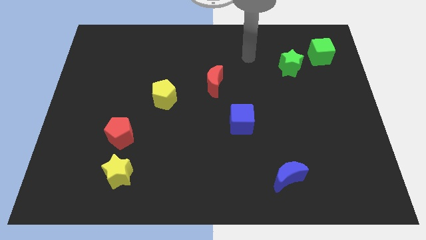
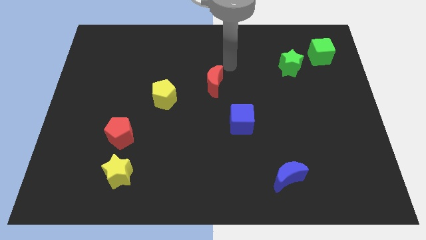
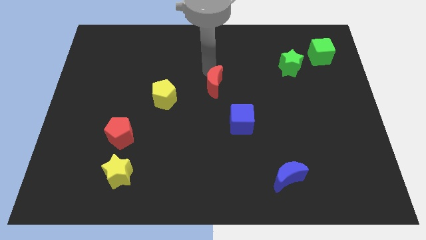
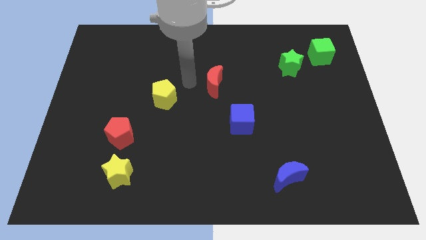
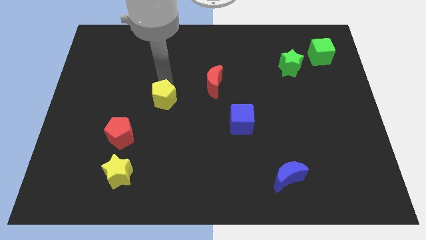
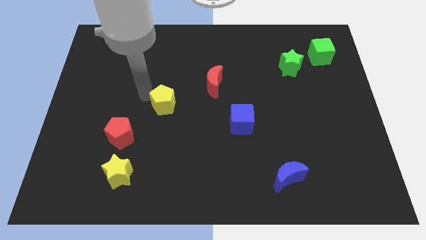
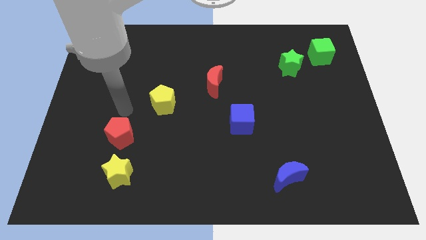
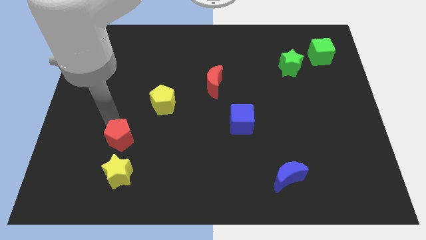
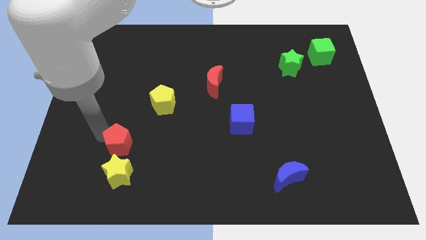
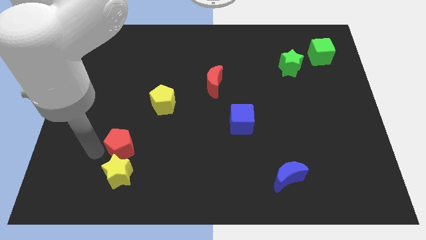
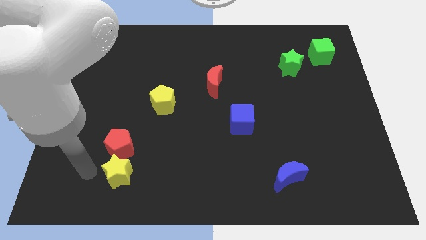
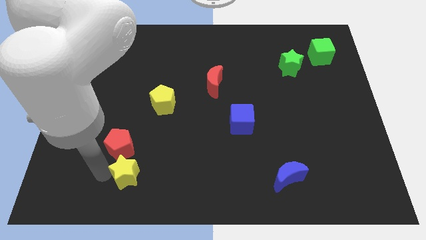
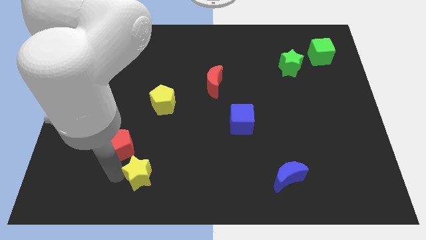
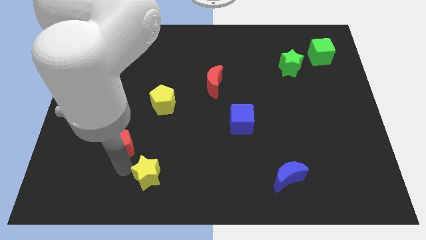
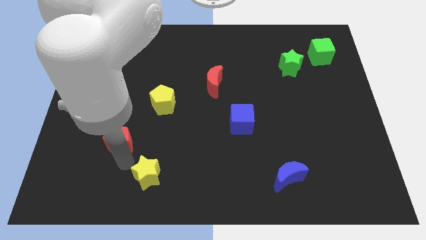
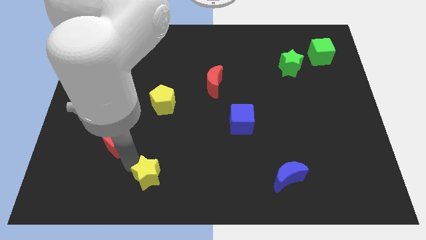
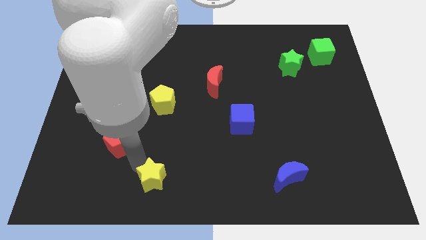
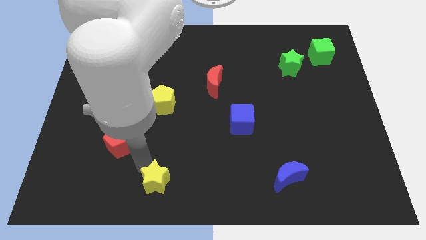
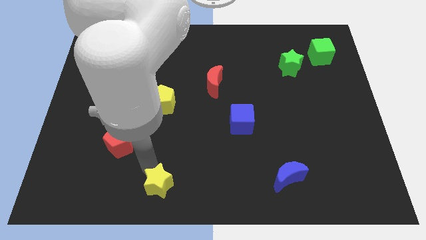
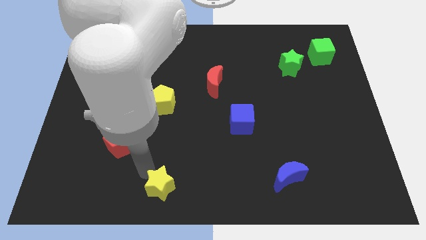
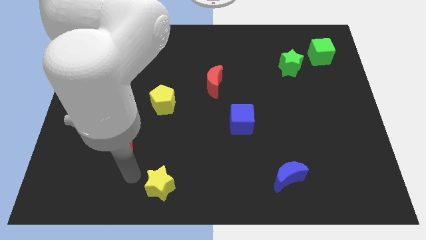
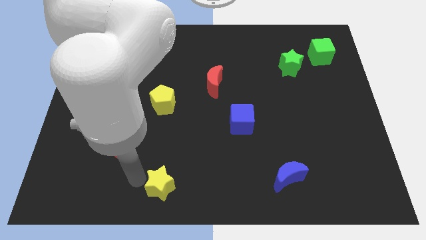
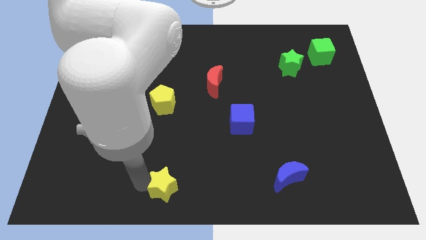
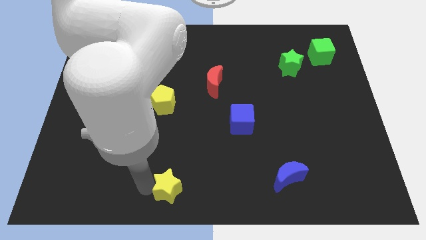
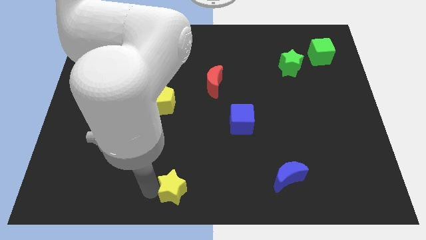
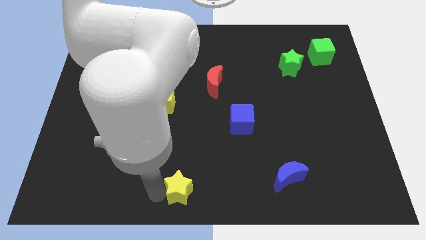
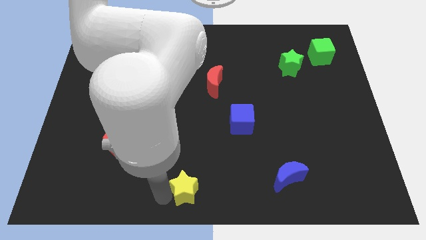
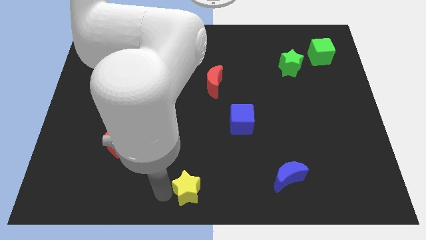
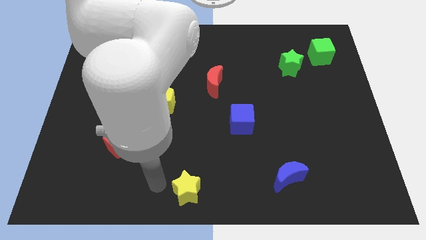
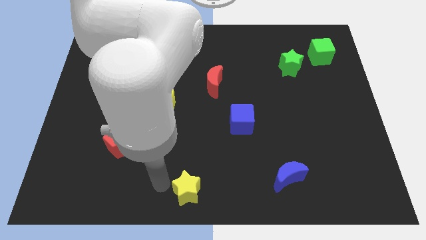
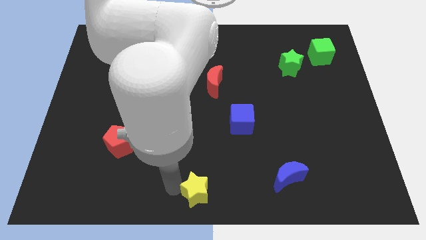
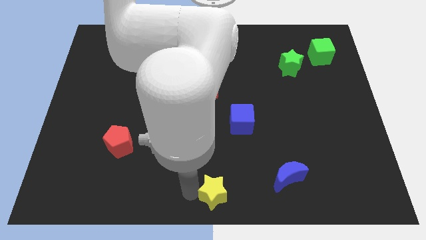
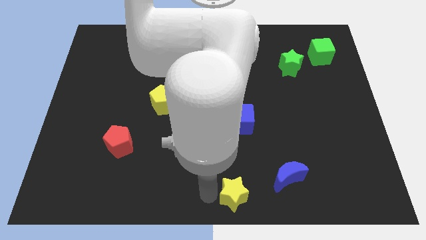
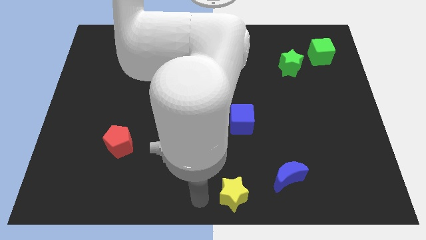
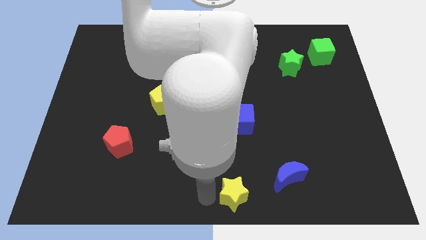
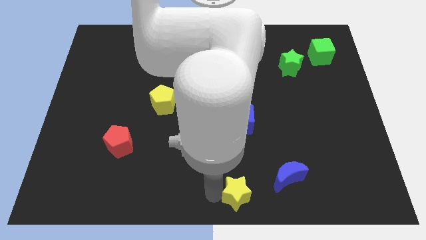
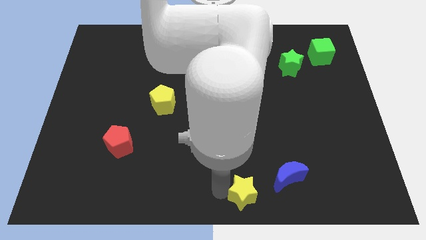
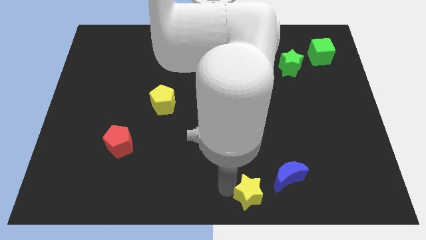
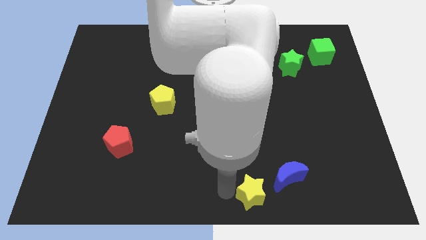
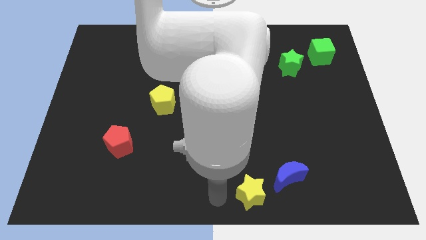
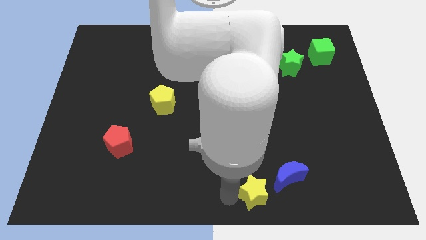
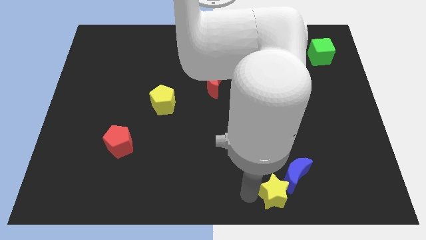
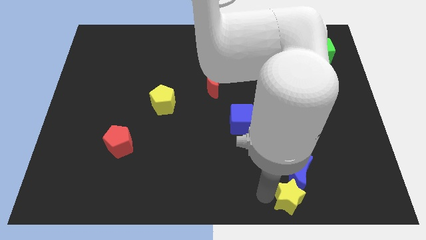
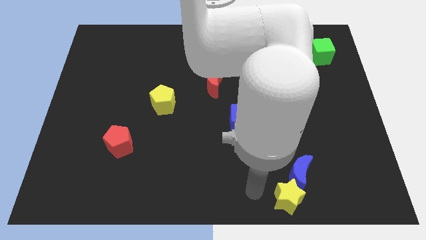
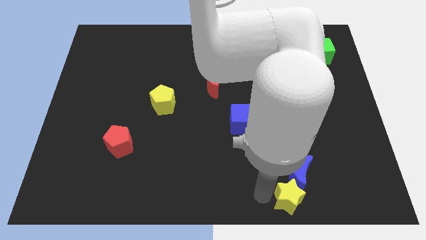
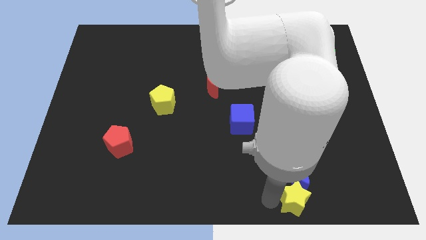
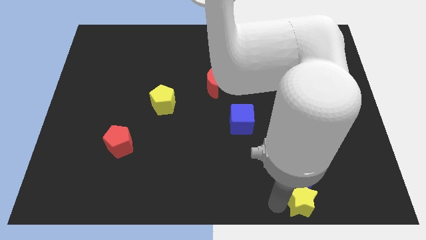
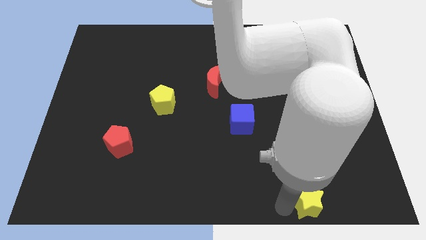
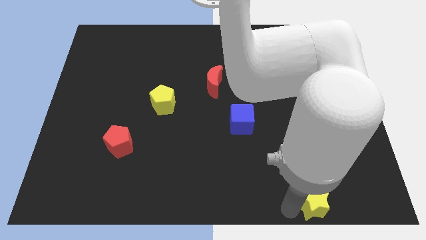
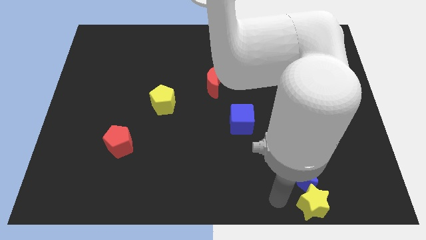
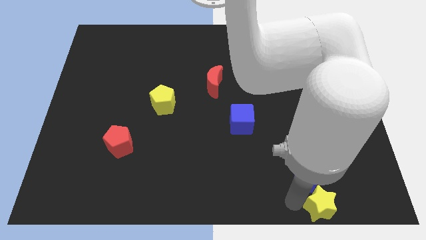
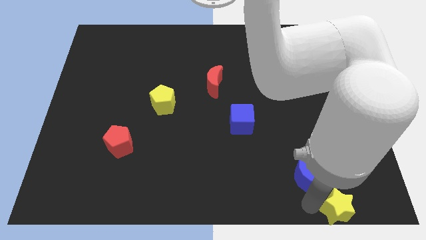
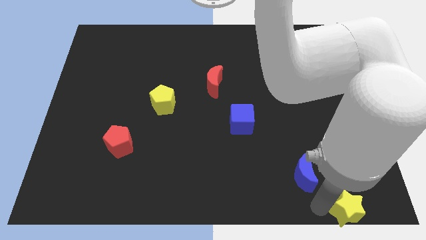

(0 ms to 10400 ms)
push the yellow star to the lower right corner

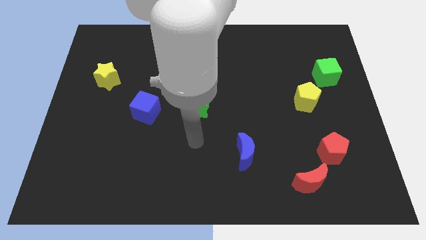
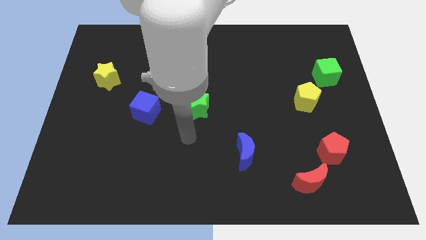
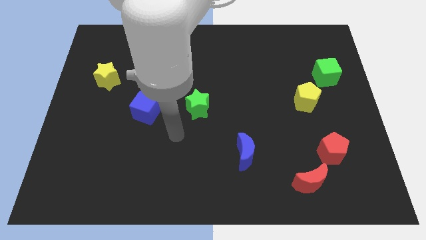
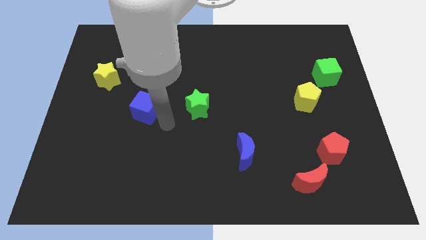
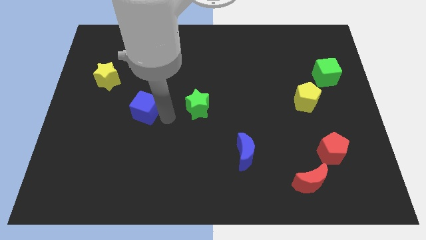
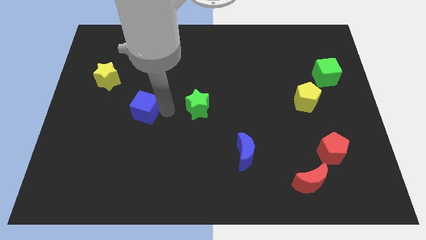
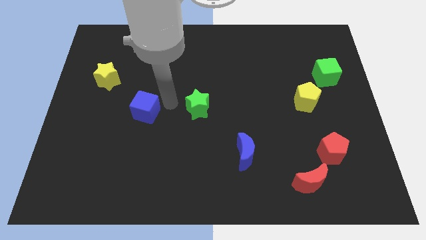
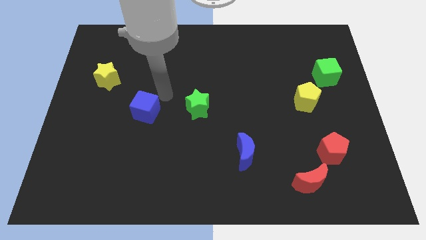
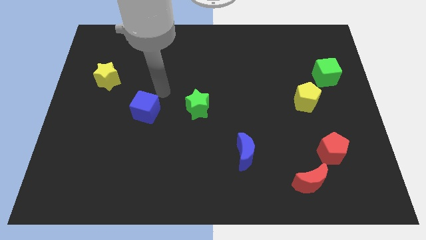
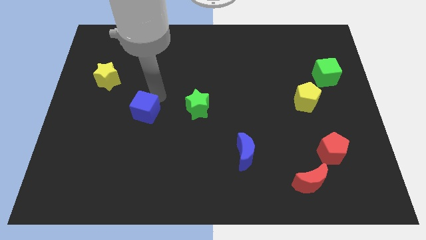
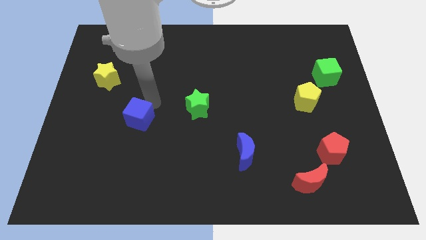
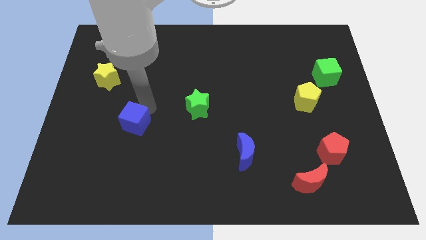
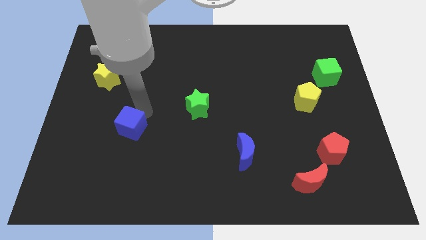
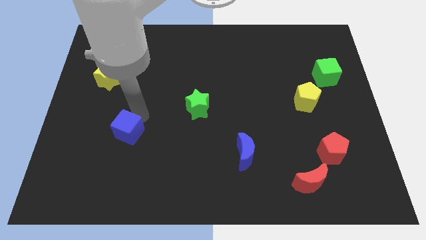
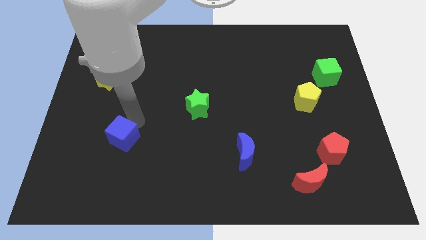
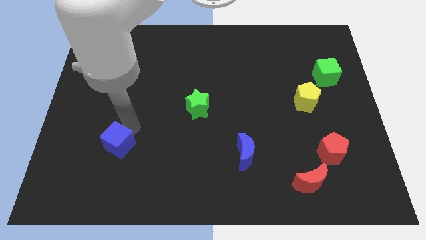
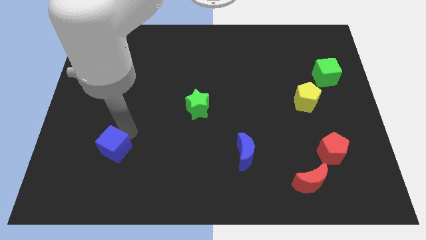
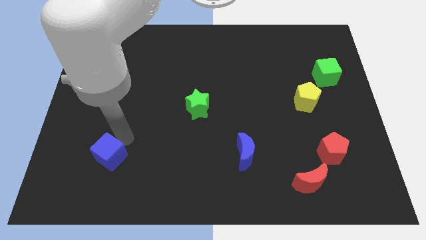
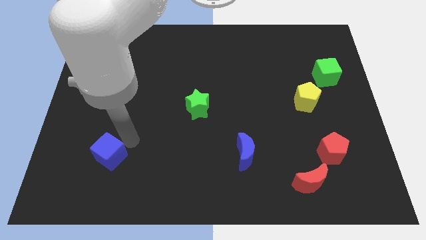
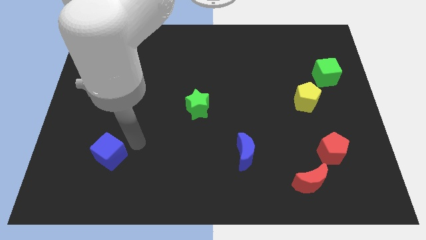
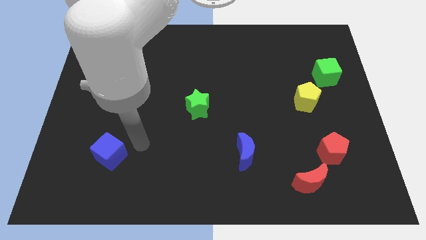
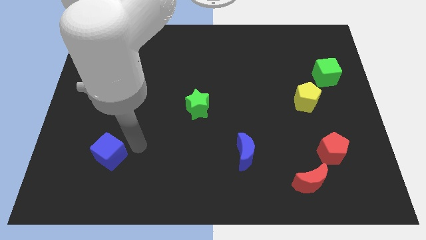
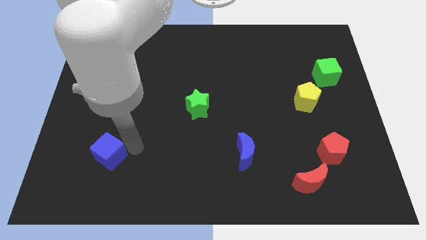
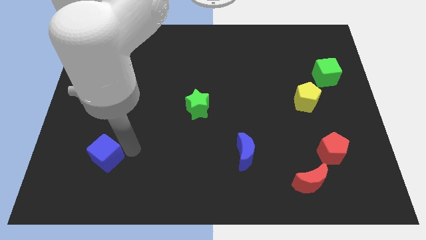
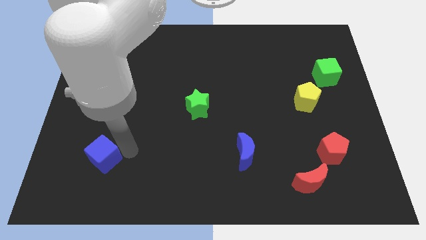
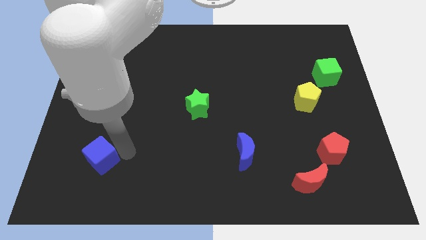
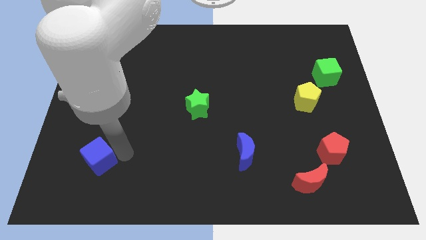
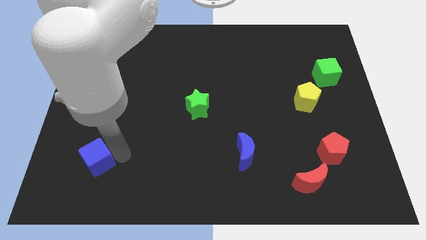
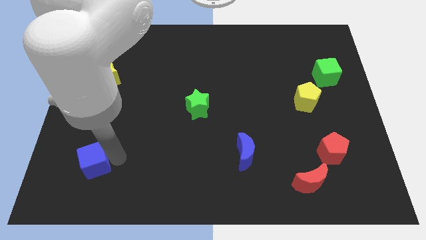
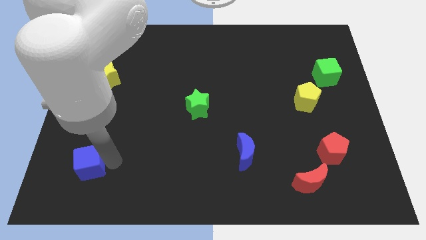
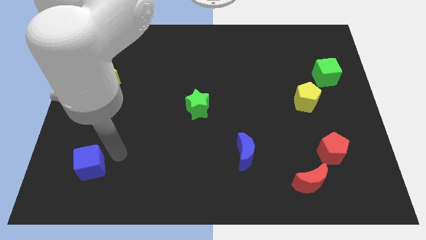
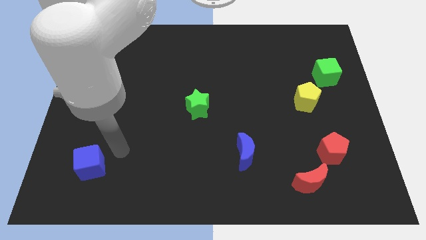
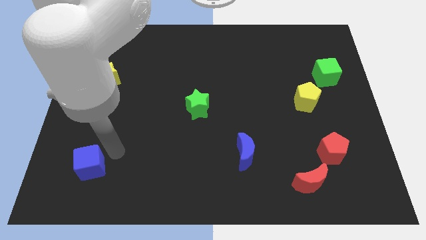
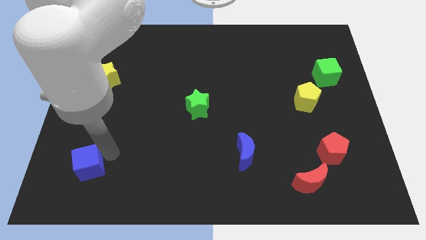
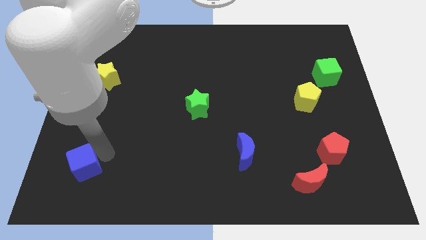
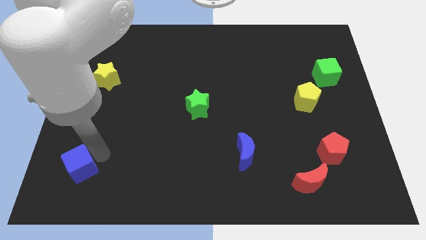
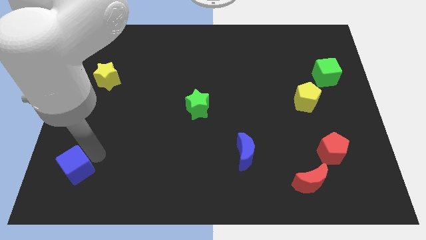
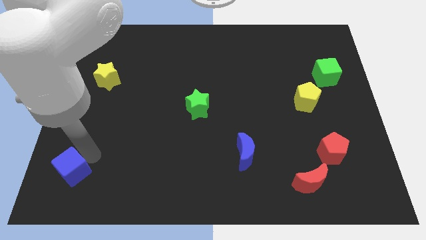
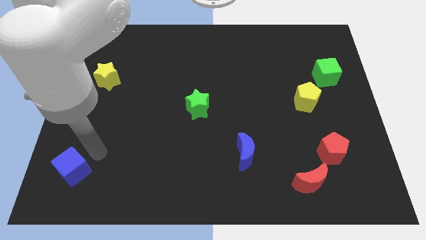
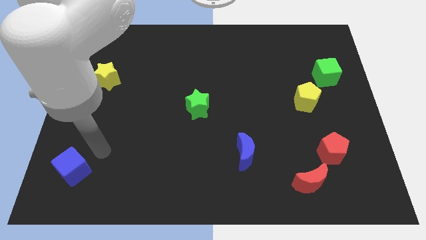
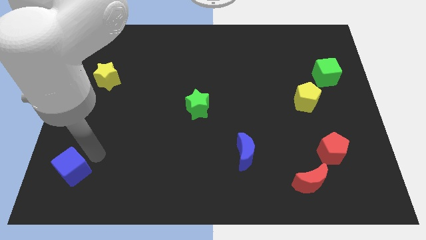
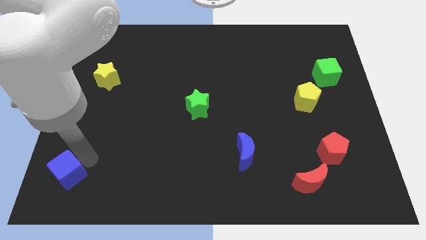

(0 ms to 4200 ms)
move the blue cube to the bottom left corner
